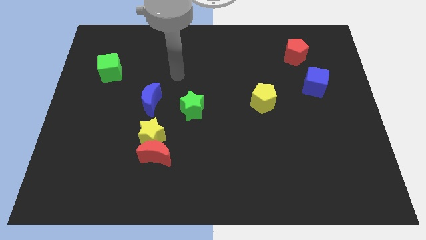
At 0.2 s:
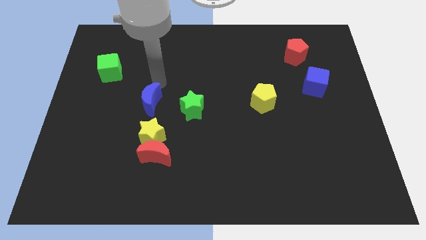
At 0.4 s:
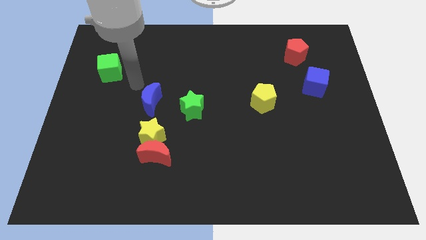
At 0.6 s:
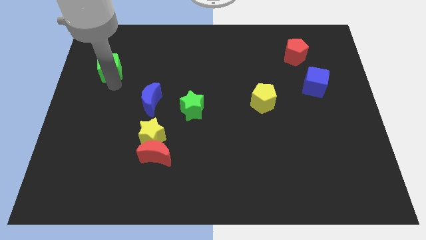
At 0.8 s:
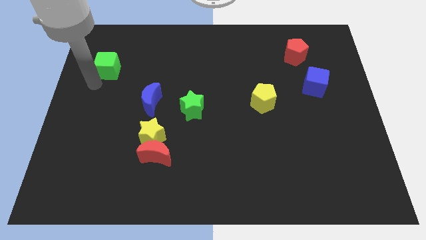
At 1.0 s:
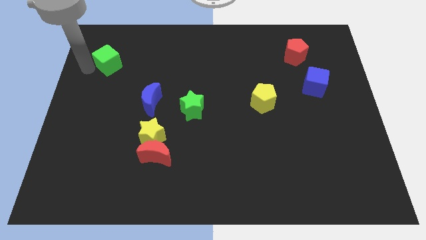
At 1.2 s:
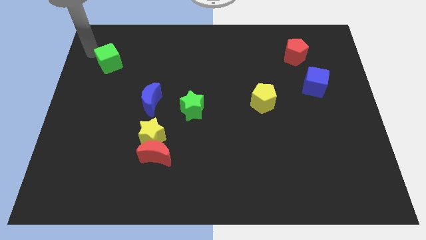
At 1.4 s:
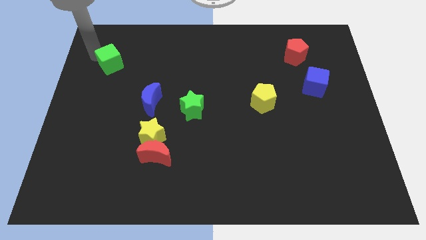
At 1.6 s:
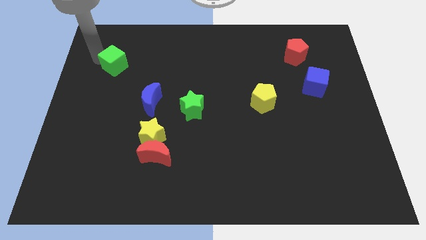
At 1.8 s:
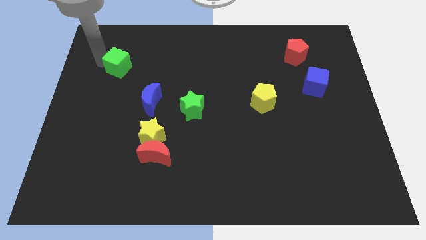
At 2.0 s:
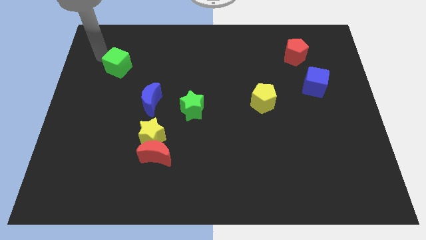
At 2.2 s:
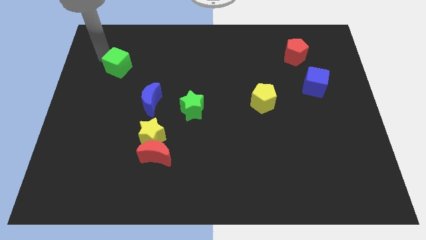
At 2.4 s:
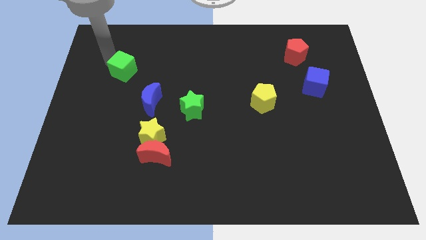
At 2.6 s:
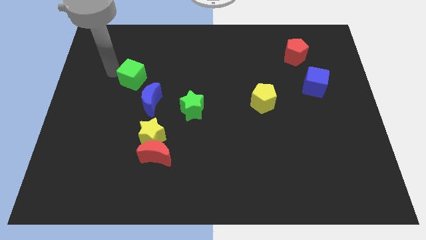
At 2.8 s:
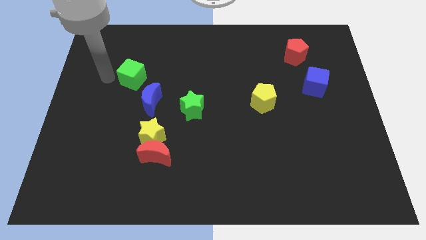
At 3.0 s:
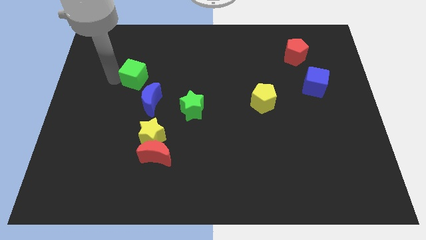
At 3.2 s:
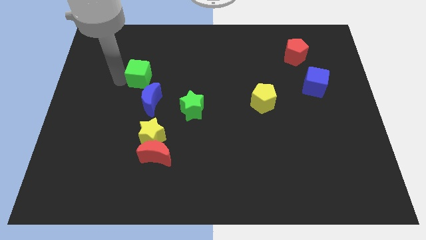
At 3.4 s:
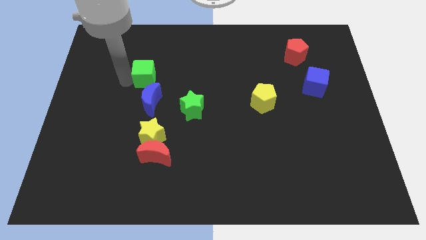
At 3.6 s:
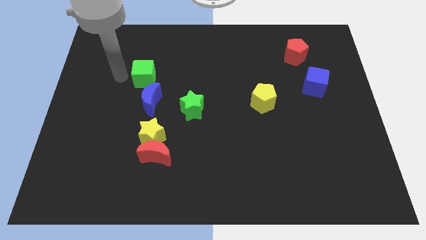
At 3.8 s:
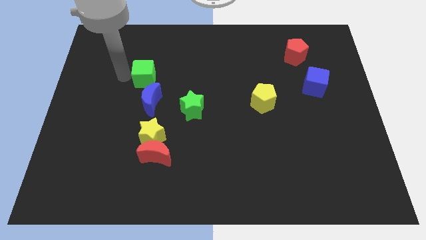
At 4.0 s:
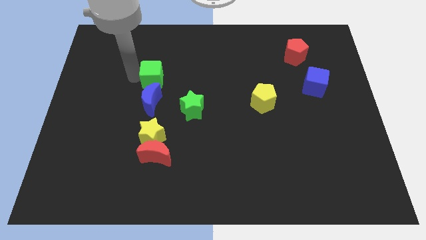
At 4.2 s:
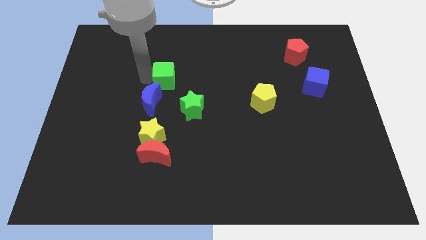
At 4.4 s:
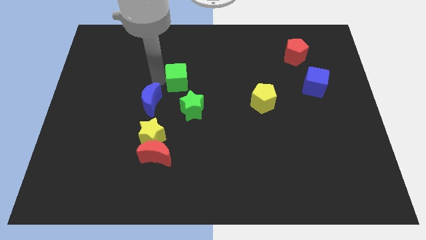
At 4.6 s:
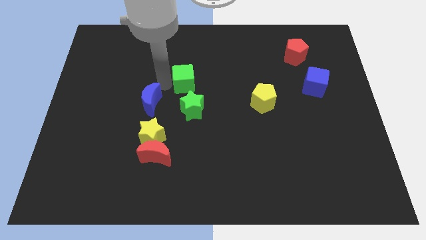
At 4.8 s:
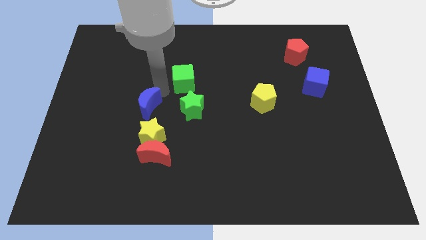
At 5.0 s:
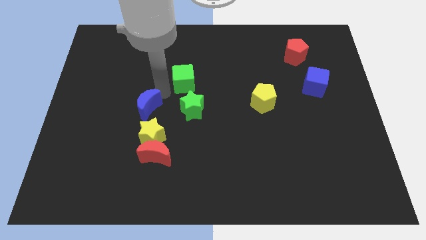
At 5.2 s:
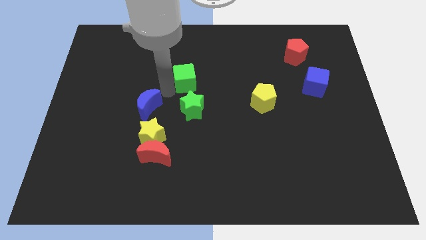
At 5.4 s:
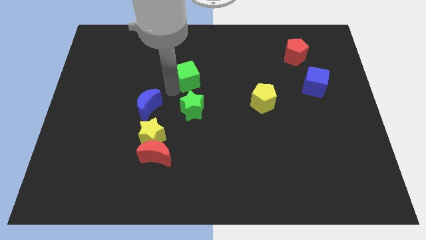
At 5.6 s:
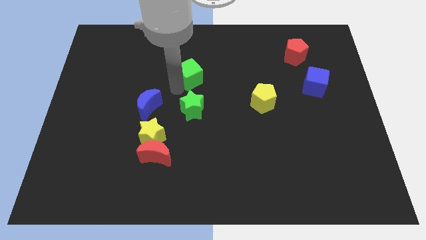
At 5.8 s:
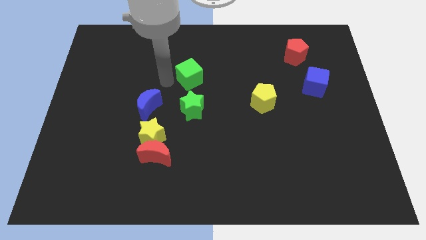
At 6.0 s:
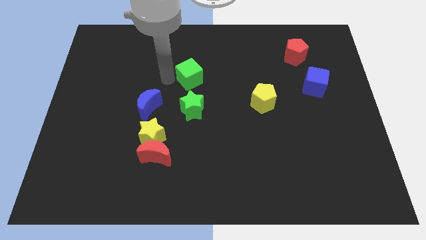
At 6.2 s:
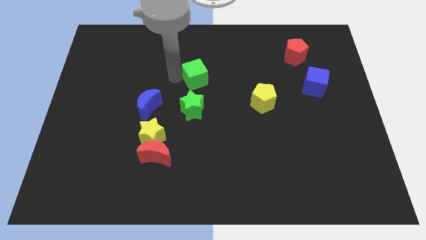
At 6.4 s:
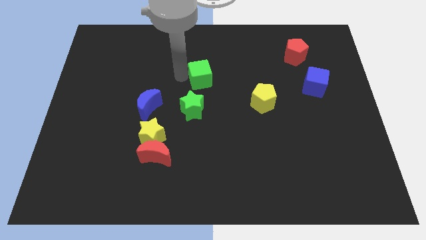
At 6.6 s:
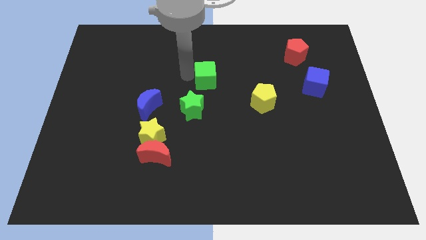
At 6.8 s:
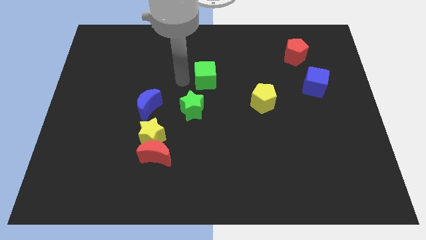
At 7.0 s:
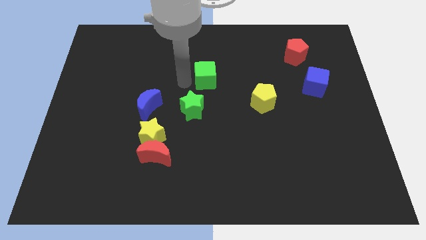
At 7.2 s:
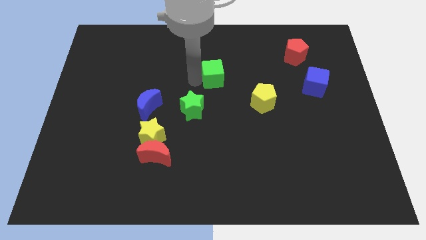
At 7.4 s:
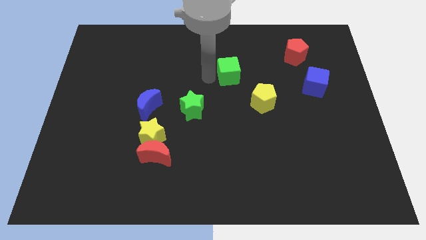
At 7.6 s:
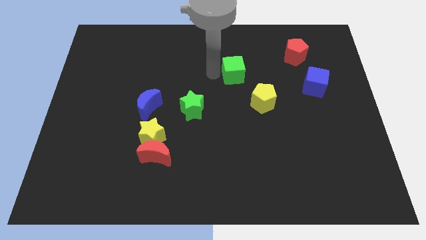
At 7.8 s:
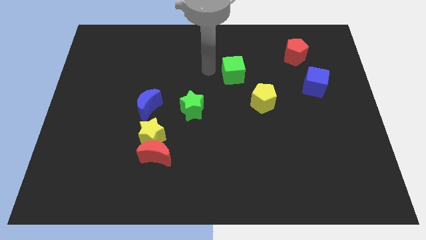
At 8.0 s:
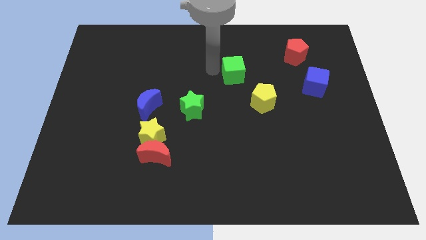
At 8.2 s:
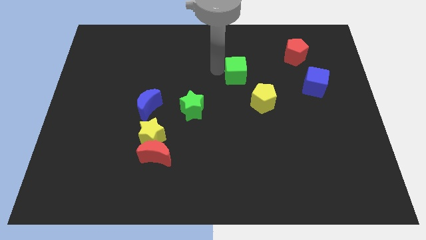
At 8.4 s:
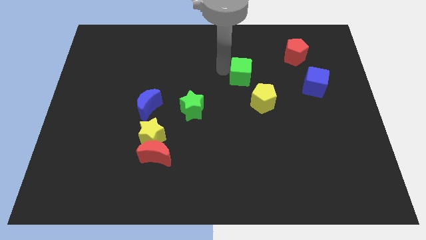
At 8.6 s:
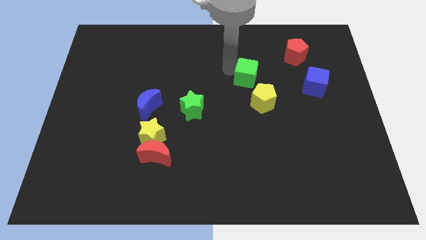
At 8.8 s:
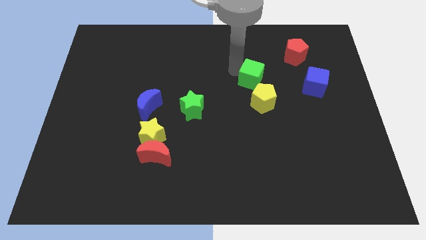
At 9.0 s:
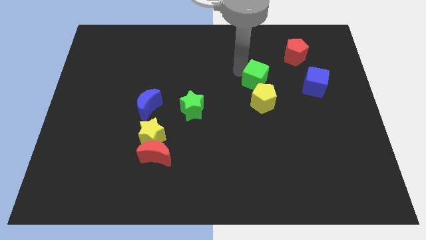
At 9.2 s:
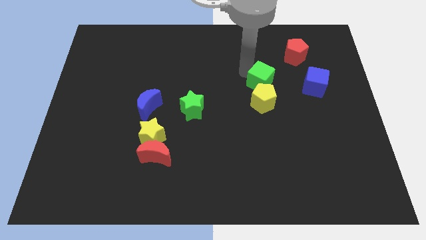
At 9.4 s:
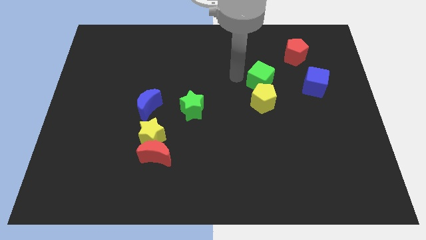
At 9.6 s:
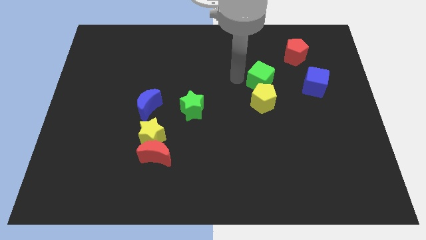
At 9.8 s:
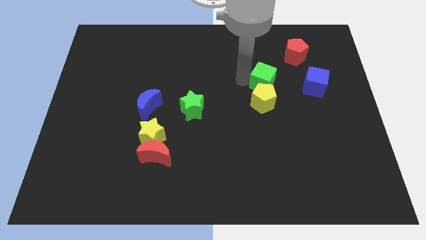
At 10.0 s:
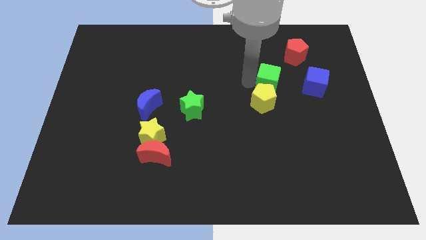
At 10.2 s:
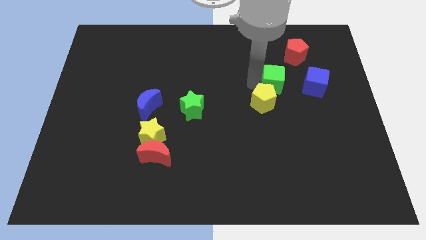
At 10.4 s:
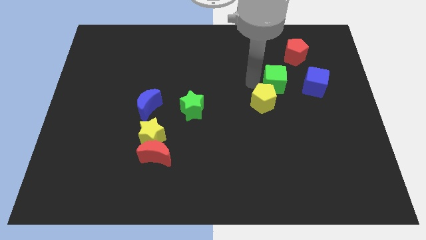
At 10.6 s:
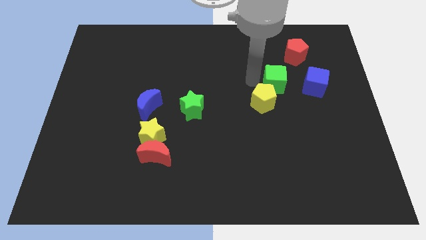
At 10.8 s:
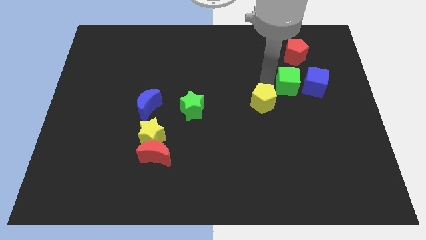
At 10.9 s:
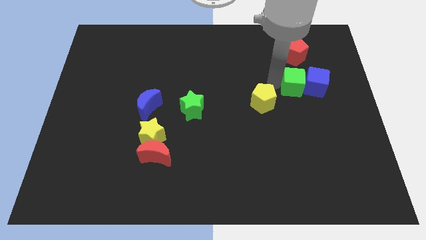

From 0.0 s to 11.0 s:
put the green cube to the blue cube

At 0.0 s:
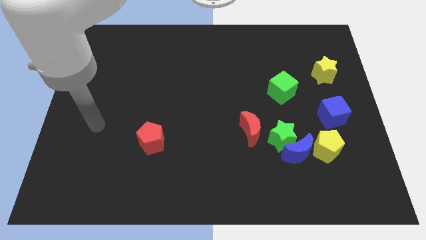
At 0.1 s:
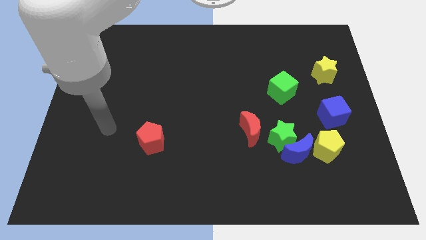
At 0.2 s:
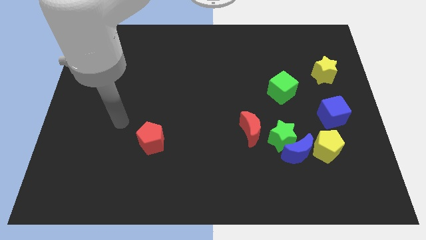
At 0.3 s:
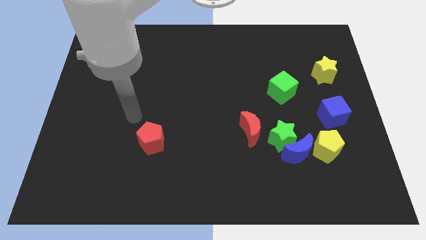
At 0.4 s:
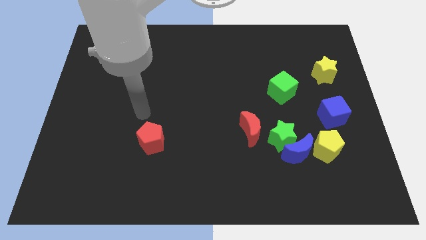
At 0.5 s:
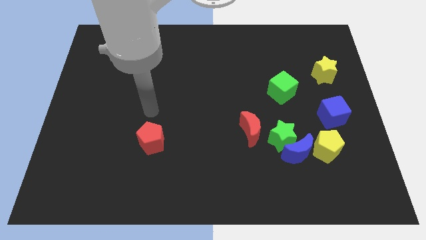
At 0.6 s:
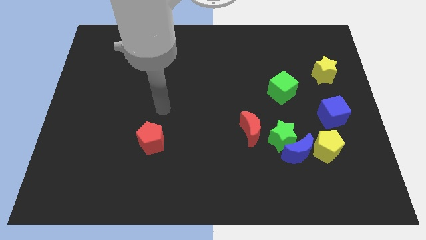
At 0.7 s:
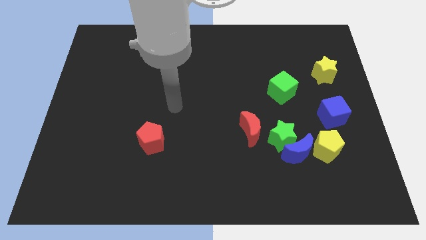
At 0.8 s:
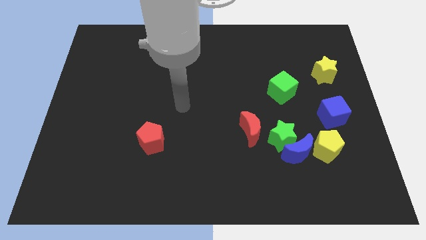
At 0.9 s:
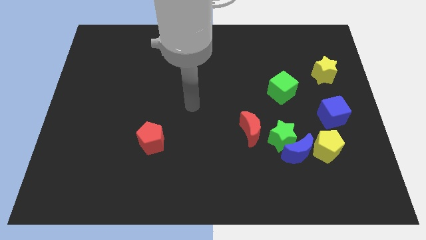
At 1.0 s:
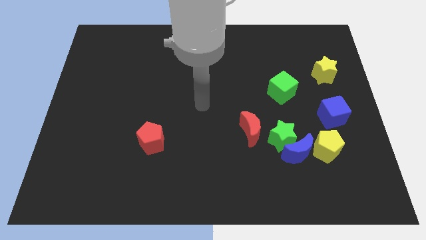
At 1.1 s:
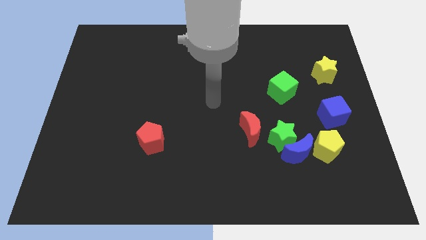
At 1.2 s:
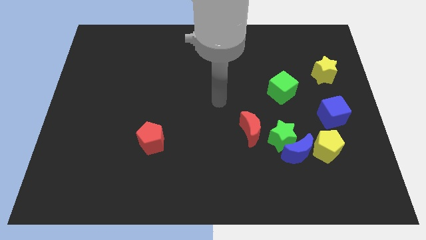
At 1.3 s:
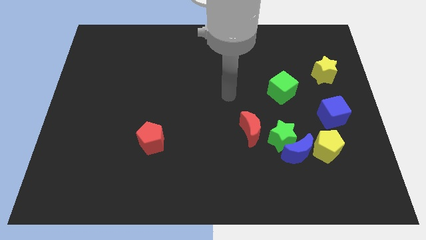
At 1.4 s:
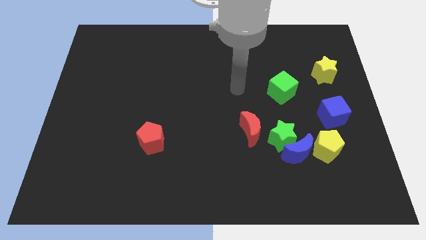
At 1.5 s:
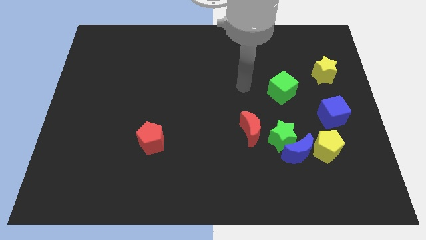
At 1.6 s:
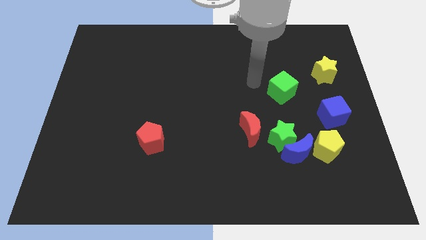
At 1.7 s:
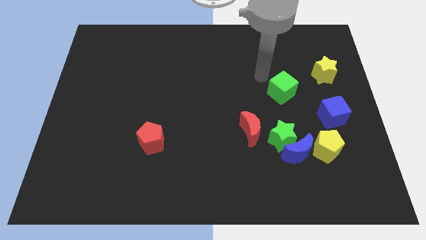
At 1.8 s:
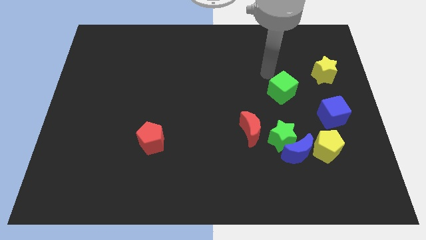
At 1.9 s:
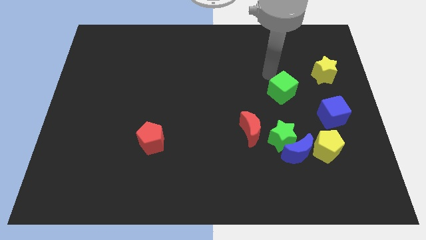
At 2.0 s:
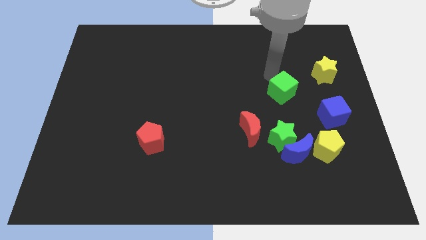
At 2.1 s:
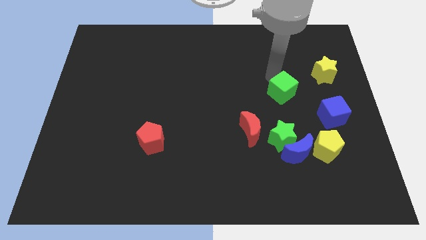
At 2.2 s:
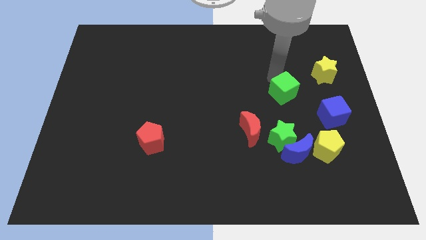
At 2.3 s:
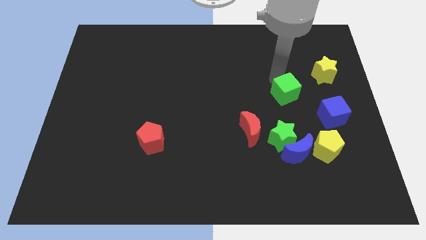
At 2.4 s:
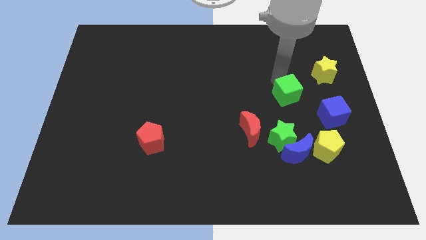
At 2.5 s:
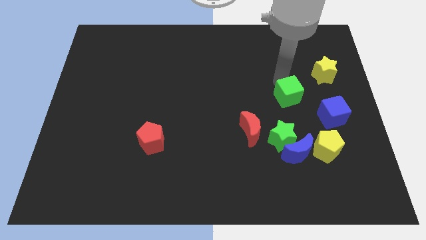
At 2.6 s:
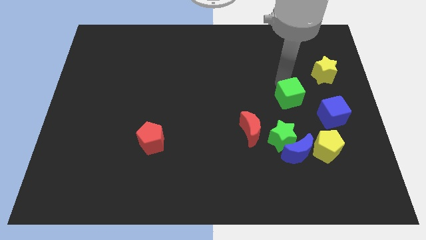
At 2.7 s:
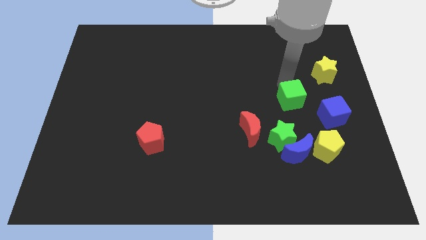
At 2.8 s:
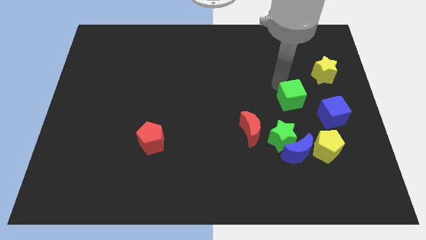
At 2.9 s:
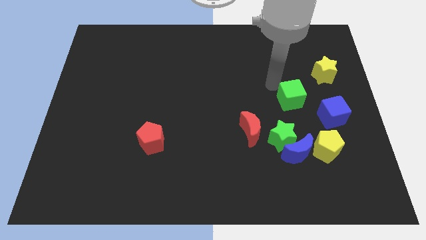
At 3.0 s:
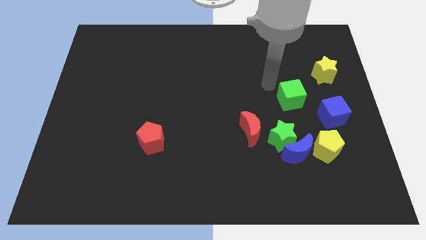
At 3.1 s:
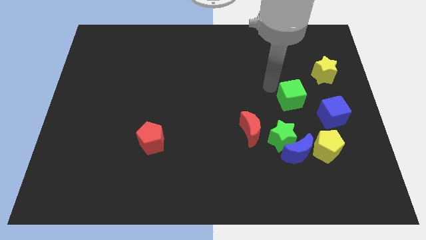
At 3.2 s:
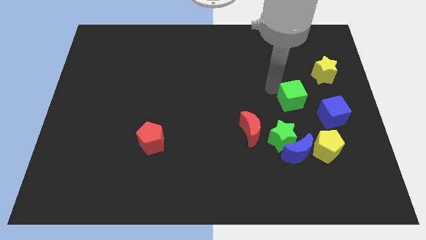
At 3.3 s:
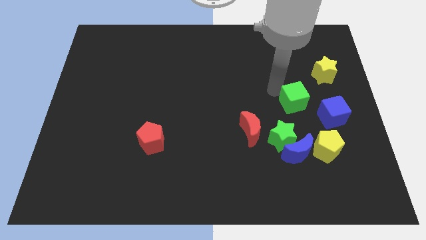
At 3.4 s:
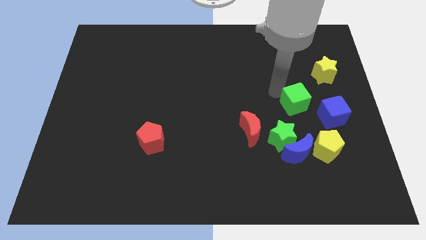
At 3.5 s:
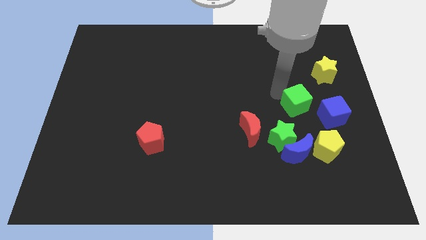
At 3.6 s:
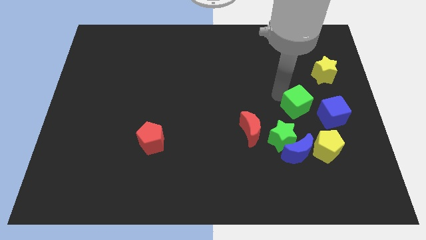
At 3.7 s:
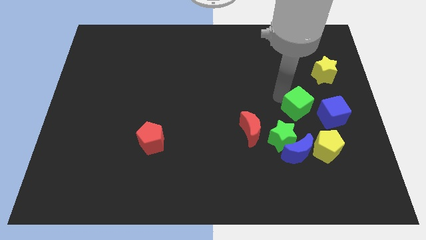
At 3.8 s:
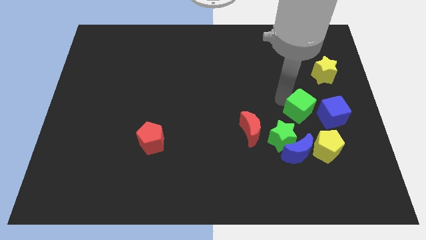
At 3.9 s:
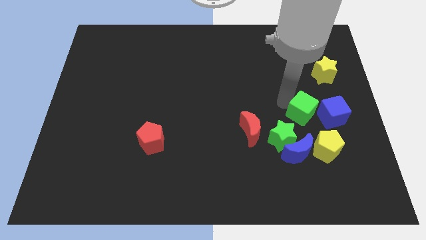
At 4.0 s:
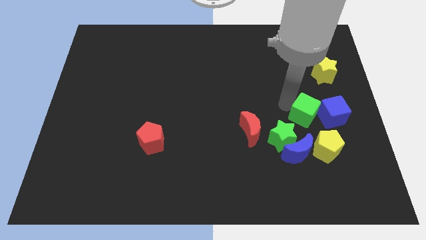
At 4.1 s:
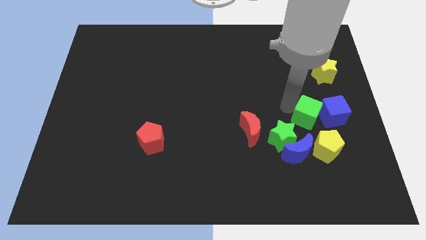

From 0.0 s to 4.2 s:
slide the green cube towards the blue cube
